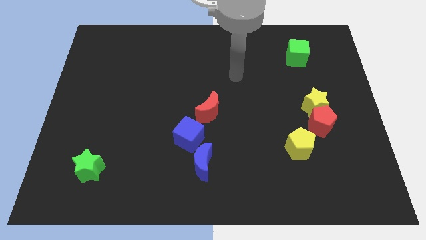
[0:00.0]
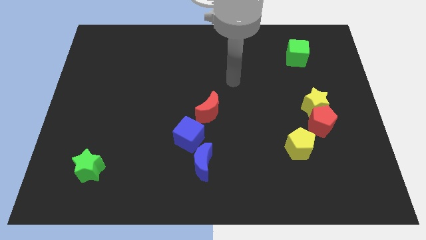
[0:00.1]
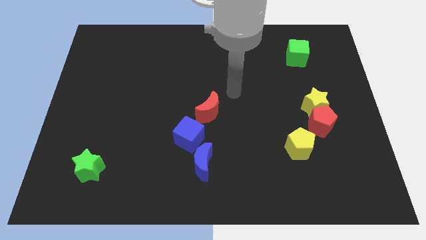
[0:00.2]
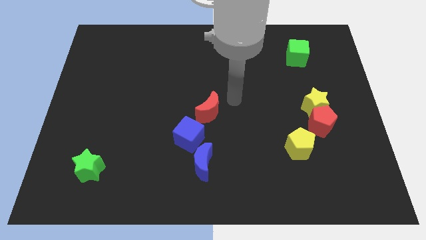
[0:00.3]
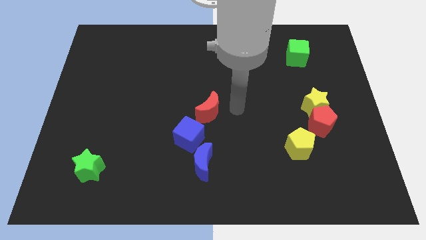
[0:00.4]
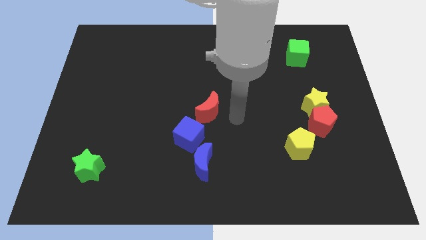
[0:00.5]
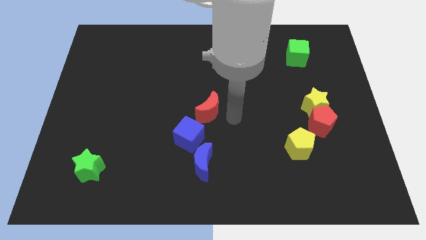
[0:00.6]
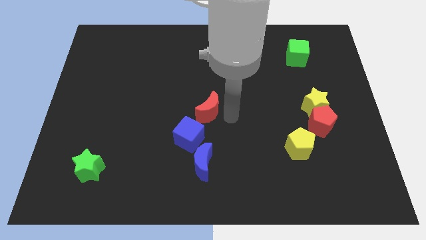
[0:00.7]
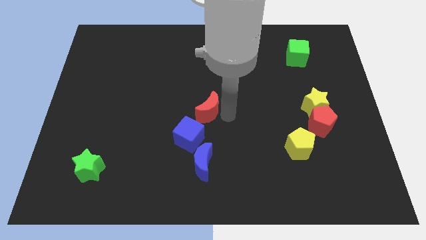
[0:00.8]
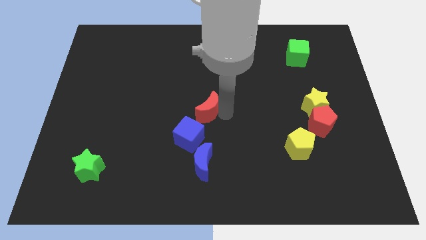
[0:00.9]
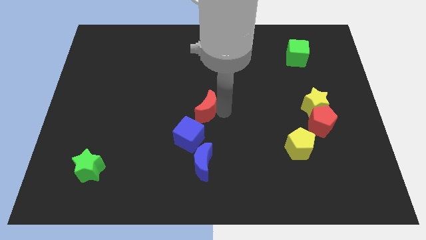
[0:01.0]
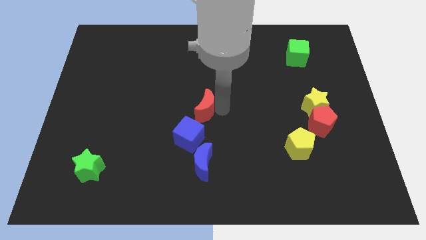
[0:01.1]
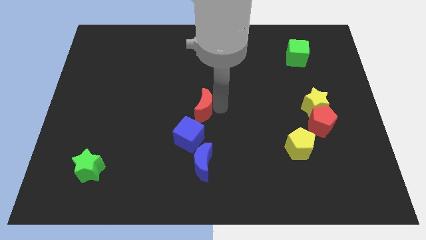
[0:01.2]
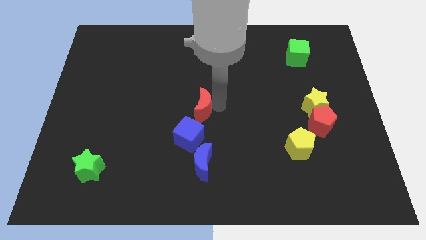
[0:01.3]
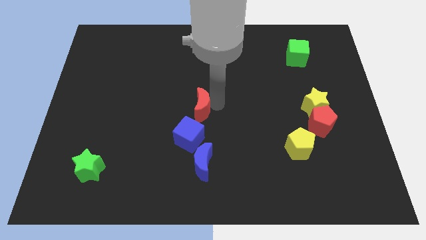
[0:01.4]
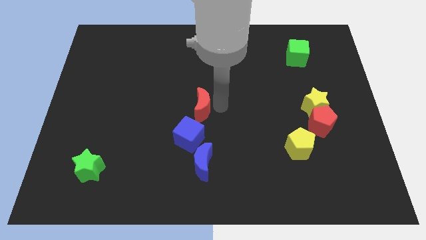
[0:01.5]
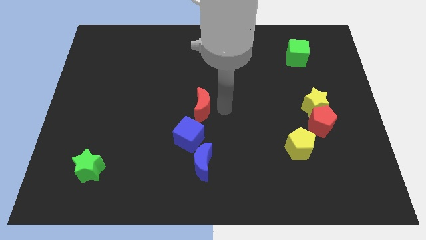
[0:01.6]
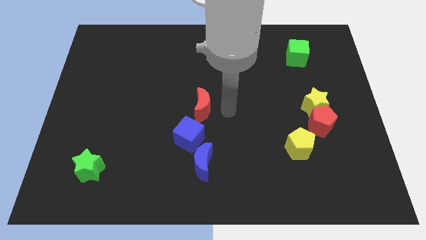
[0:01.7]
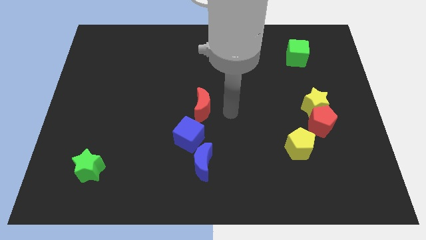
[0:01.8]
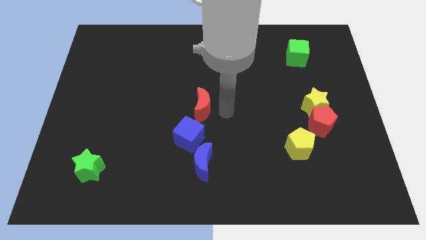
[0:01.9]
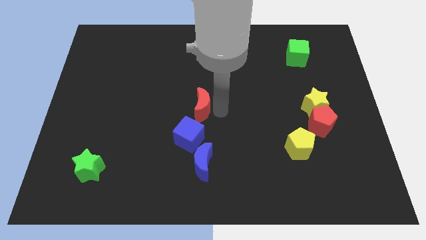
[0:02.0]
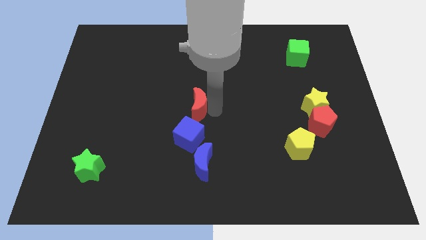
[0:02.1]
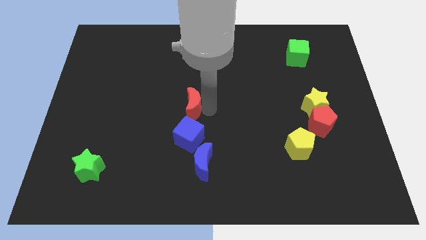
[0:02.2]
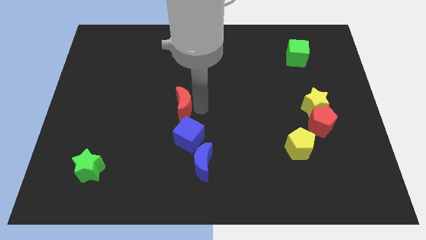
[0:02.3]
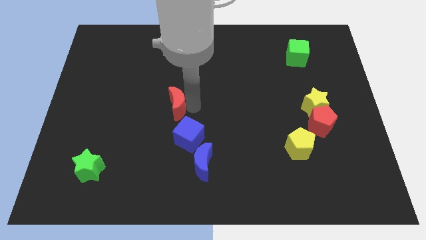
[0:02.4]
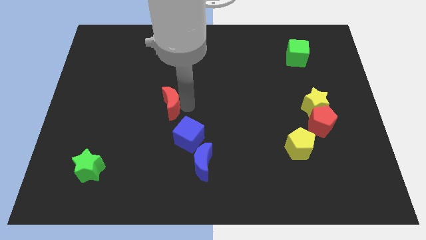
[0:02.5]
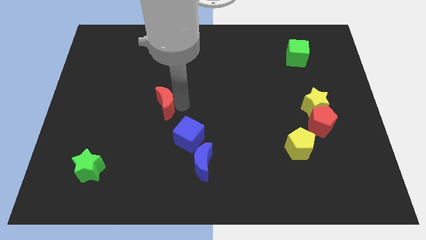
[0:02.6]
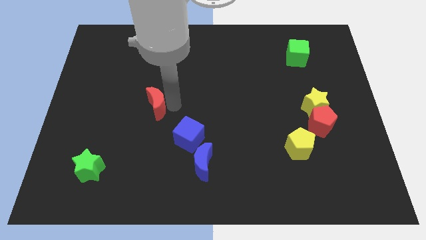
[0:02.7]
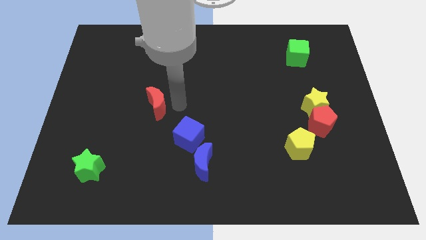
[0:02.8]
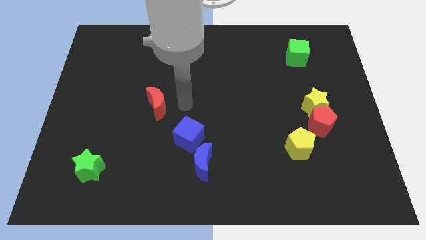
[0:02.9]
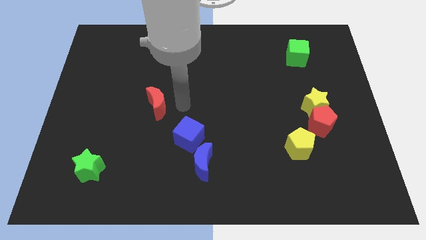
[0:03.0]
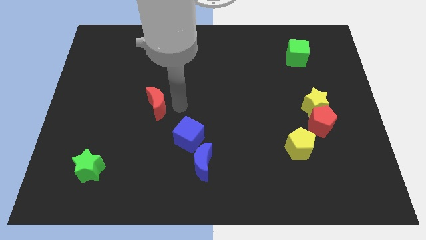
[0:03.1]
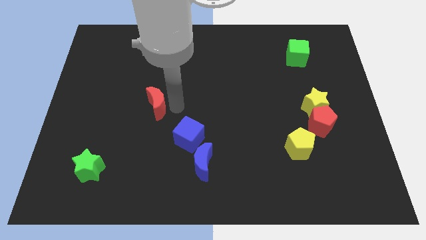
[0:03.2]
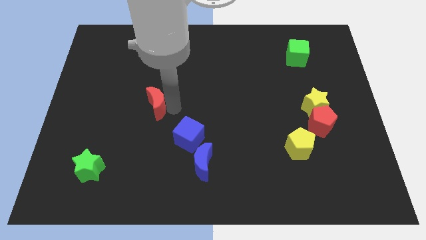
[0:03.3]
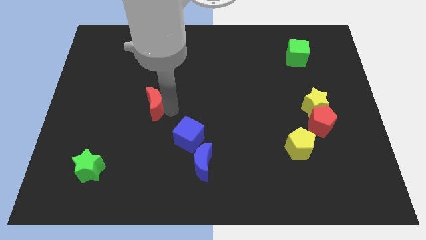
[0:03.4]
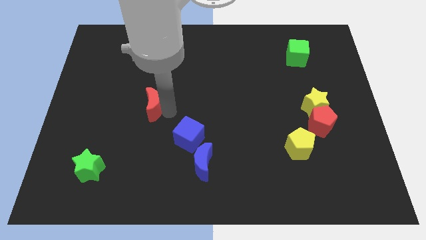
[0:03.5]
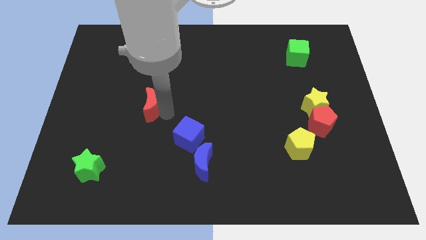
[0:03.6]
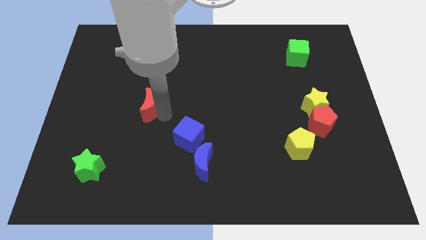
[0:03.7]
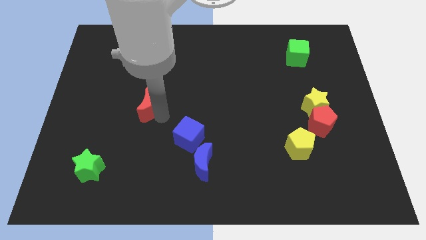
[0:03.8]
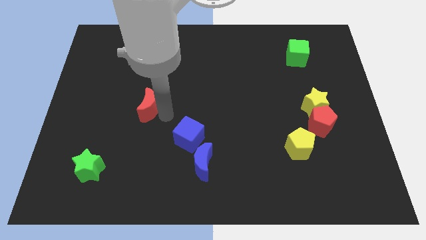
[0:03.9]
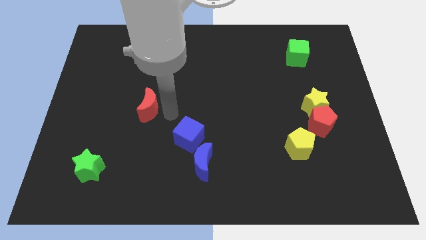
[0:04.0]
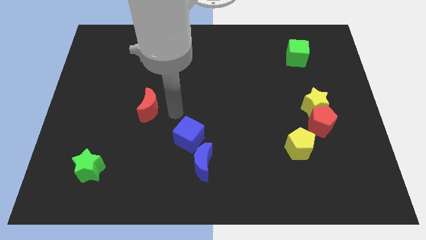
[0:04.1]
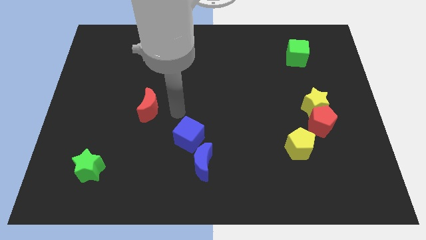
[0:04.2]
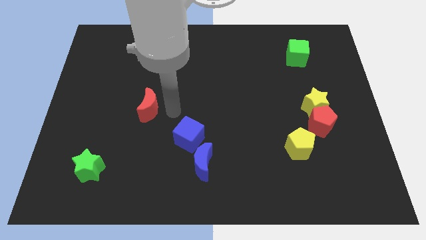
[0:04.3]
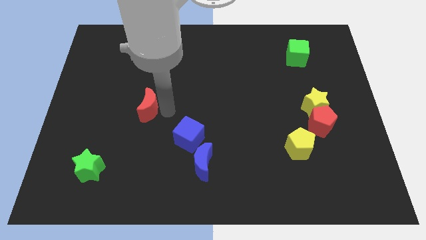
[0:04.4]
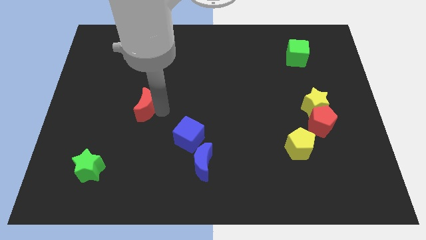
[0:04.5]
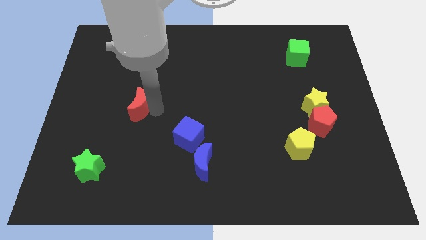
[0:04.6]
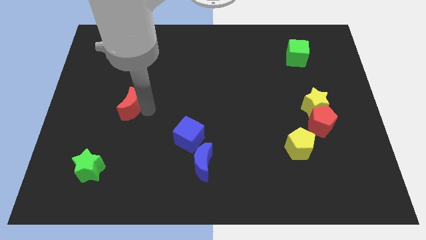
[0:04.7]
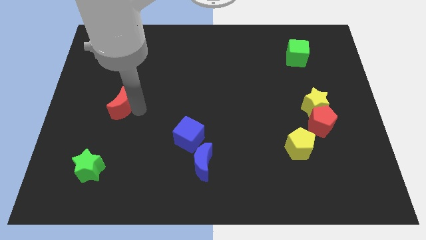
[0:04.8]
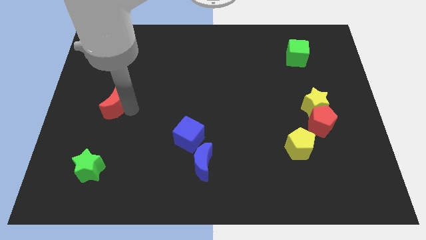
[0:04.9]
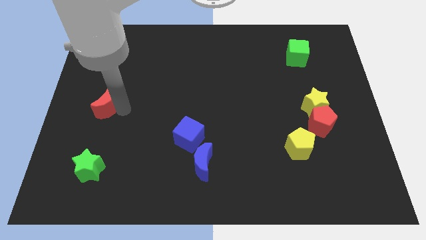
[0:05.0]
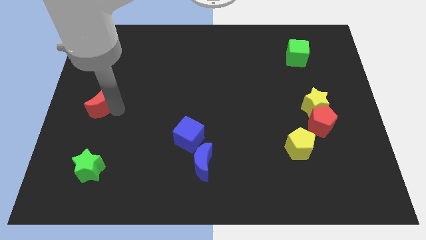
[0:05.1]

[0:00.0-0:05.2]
slide the red moon to the center left

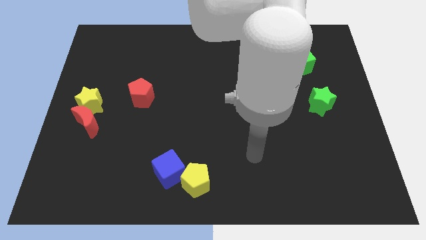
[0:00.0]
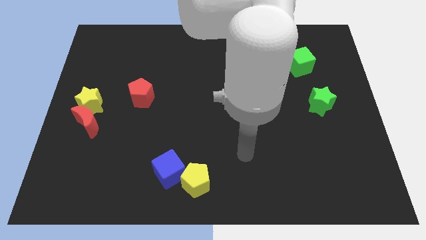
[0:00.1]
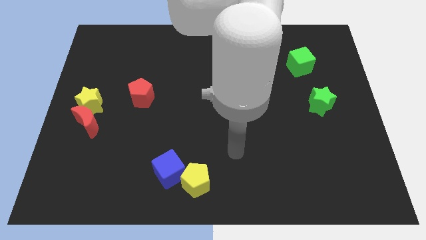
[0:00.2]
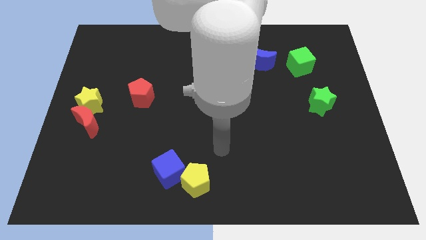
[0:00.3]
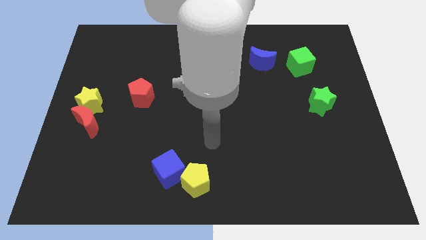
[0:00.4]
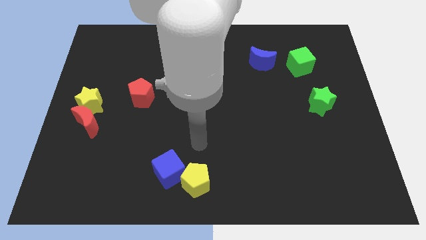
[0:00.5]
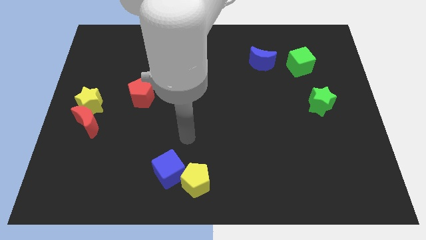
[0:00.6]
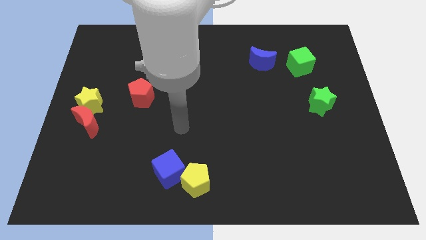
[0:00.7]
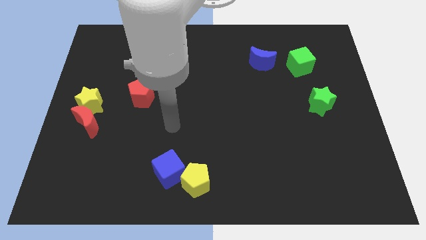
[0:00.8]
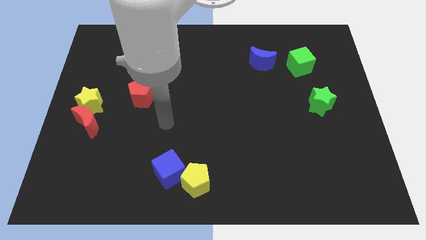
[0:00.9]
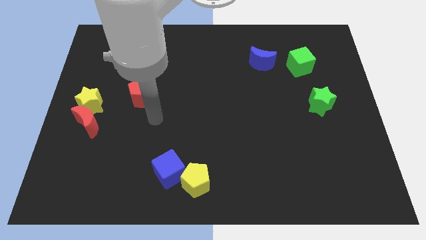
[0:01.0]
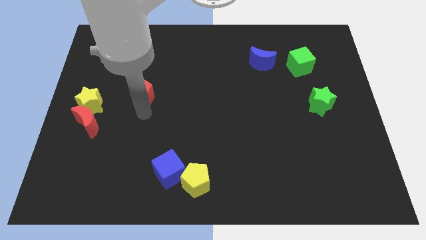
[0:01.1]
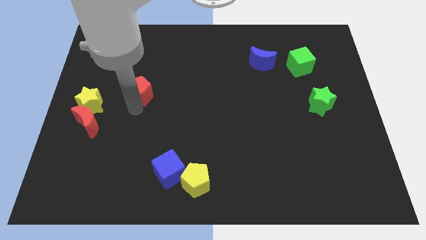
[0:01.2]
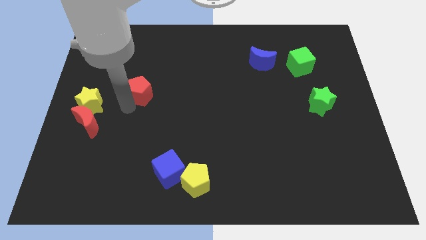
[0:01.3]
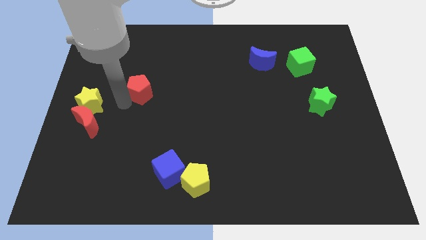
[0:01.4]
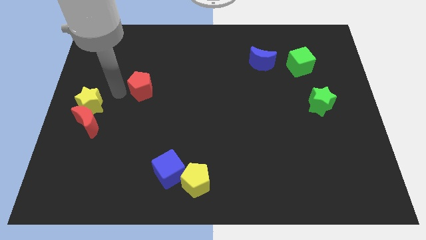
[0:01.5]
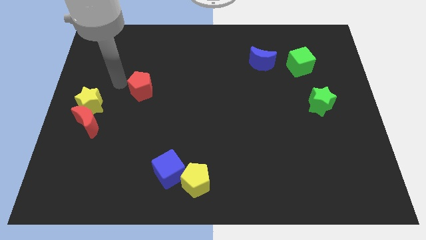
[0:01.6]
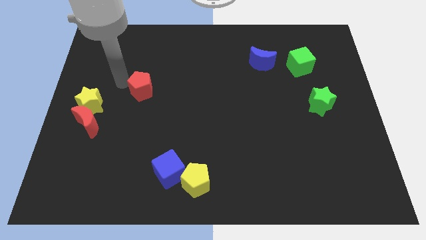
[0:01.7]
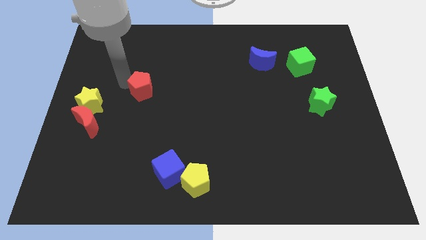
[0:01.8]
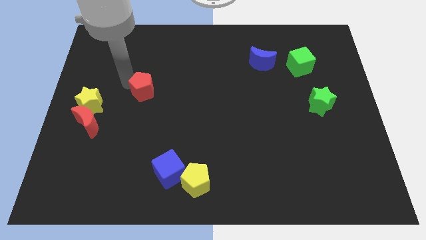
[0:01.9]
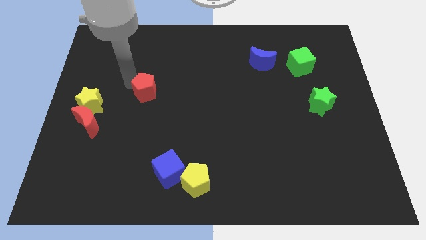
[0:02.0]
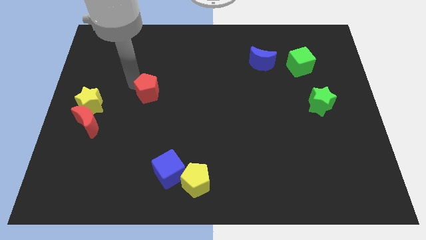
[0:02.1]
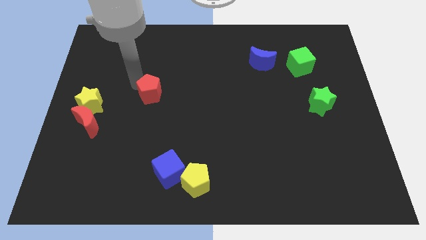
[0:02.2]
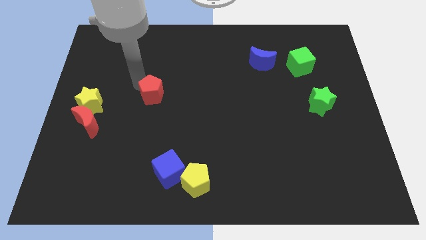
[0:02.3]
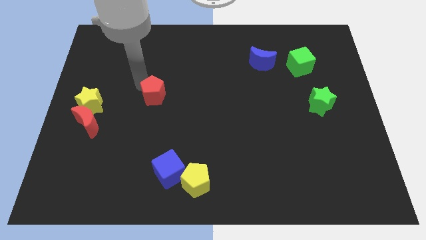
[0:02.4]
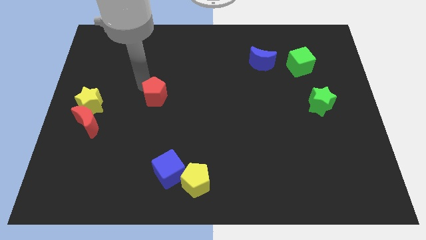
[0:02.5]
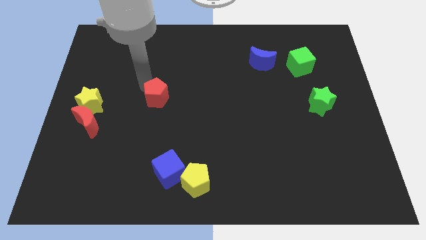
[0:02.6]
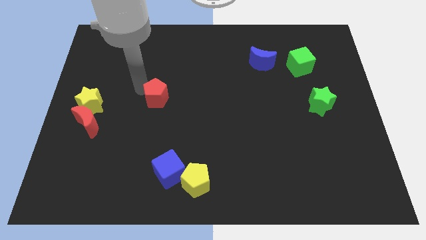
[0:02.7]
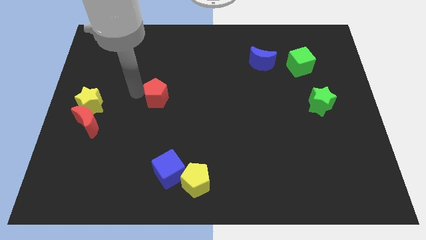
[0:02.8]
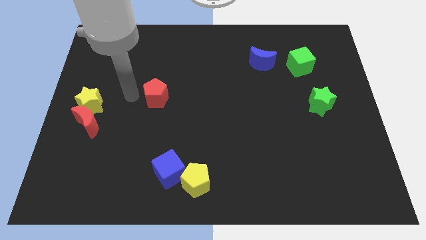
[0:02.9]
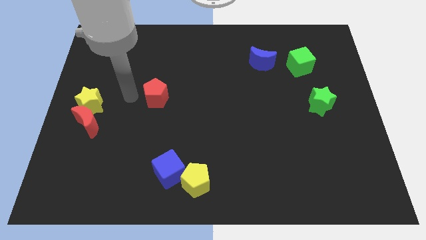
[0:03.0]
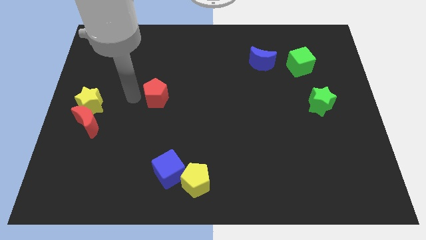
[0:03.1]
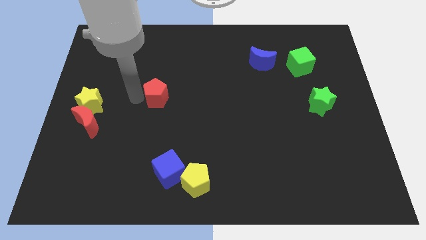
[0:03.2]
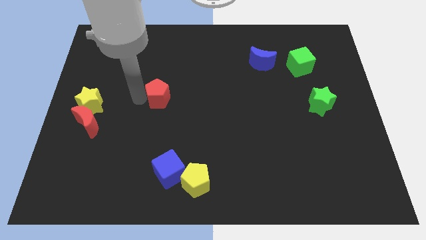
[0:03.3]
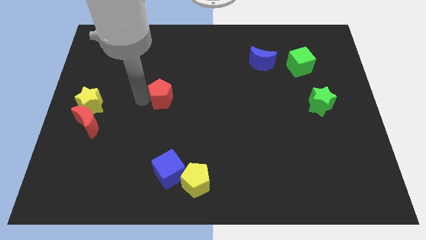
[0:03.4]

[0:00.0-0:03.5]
put the red pentagon to the center
